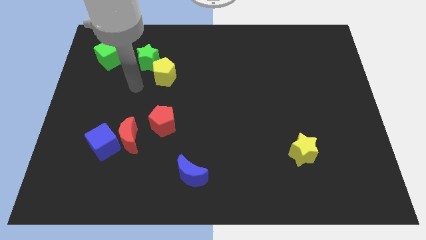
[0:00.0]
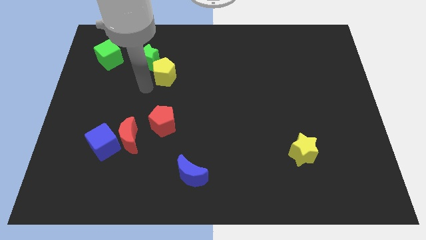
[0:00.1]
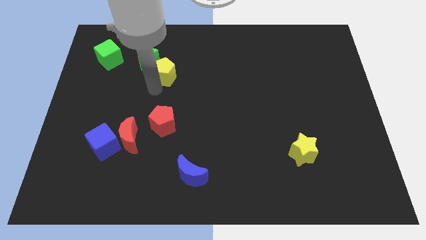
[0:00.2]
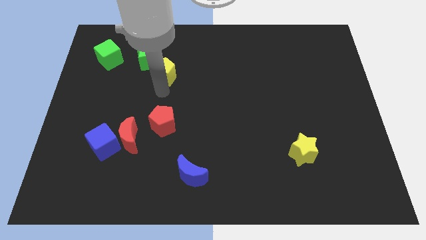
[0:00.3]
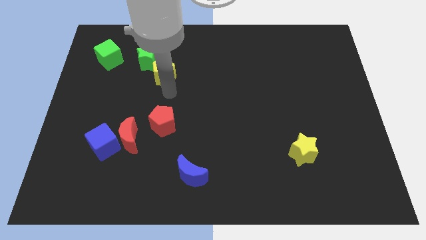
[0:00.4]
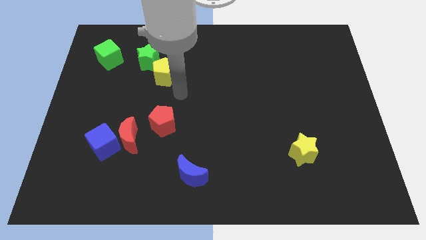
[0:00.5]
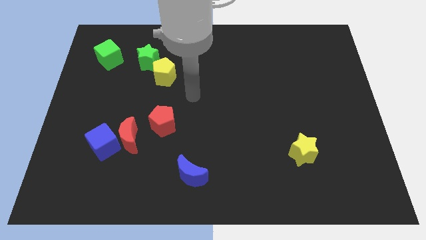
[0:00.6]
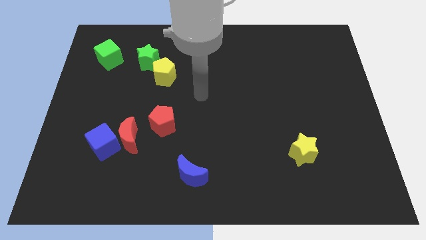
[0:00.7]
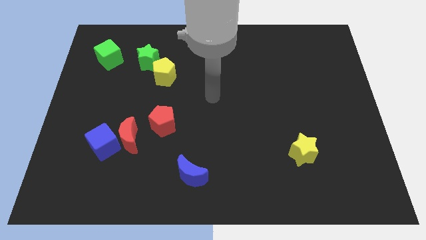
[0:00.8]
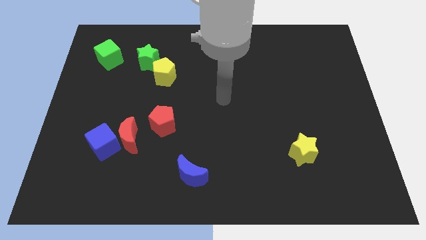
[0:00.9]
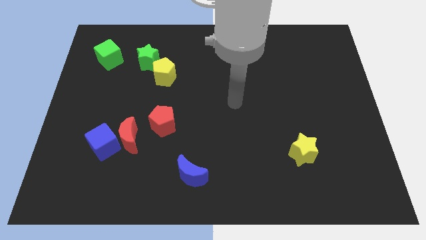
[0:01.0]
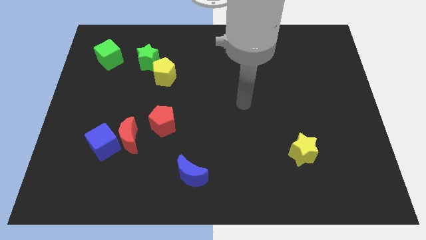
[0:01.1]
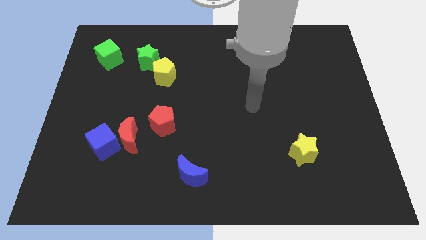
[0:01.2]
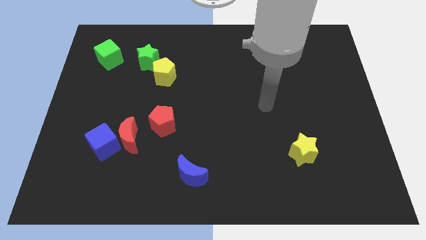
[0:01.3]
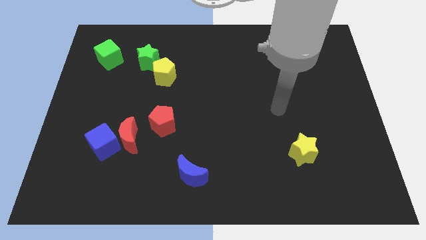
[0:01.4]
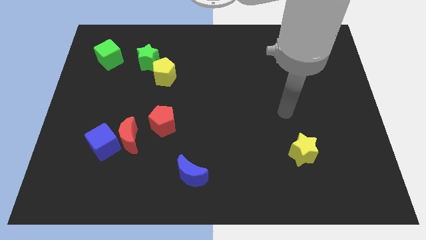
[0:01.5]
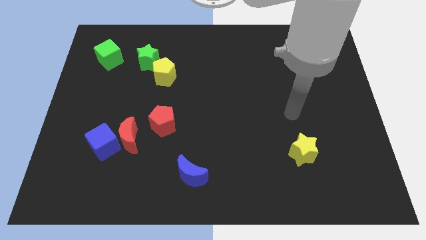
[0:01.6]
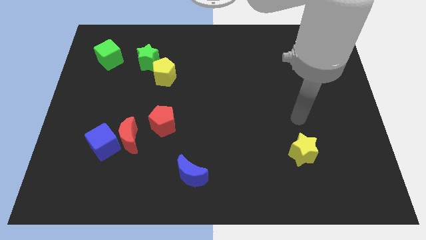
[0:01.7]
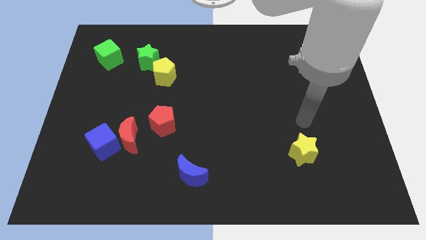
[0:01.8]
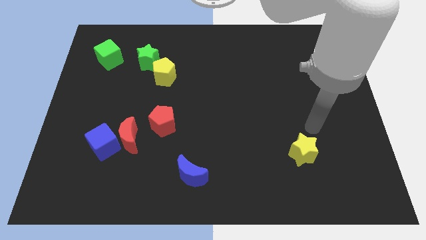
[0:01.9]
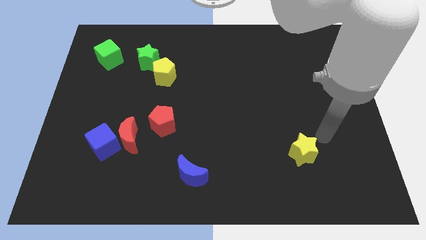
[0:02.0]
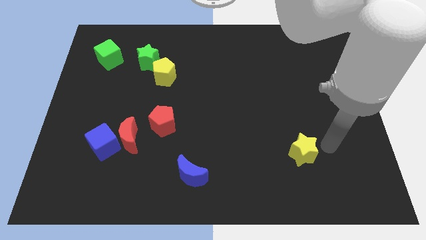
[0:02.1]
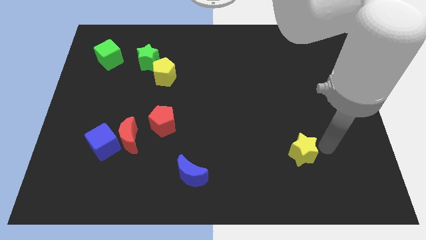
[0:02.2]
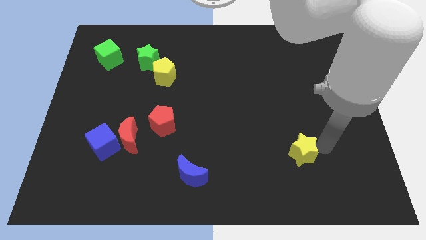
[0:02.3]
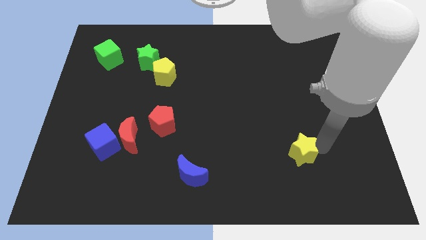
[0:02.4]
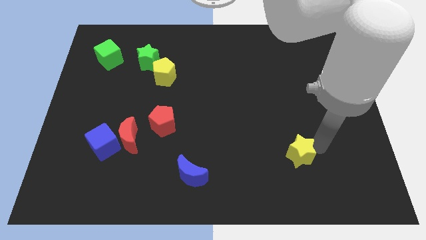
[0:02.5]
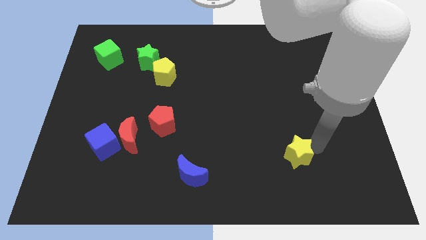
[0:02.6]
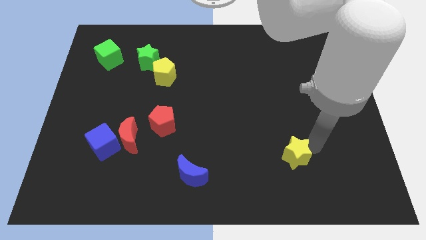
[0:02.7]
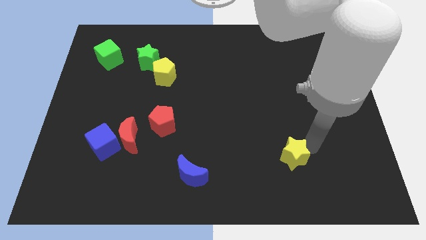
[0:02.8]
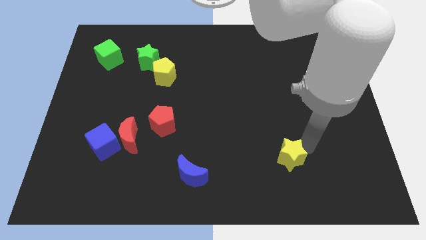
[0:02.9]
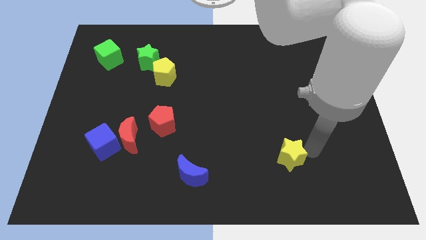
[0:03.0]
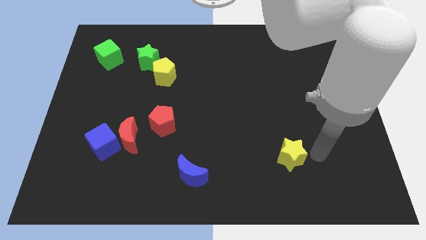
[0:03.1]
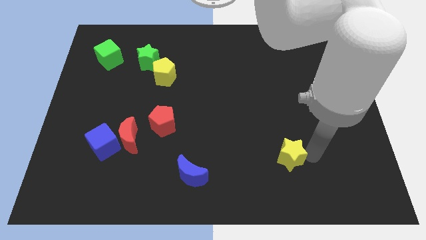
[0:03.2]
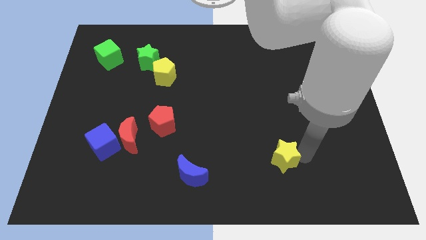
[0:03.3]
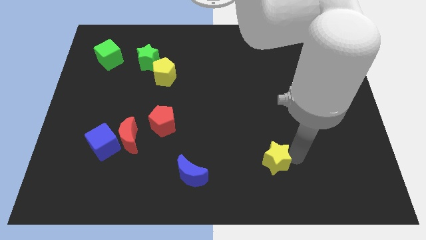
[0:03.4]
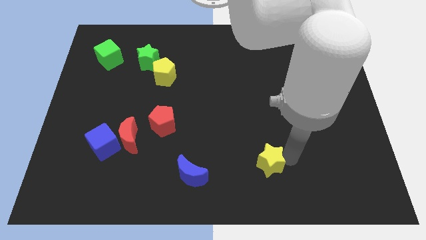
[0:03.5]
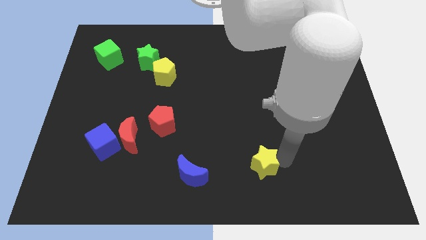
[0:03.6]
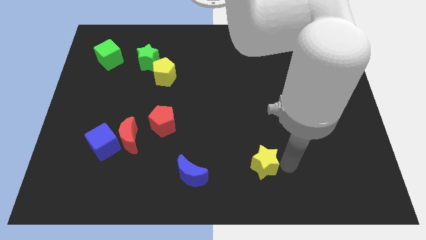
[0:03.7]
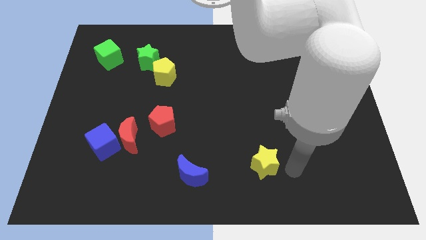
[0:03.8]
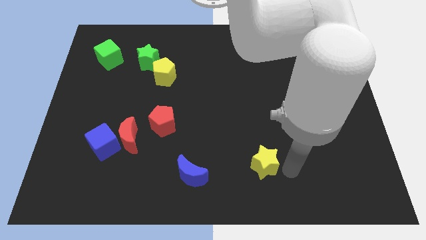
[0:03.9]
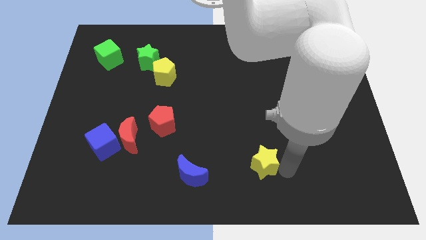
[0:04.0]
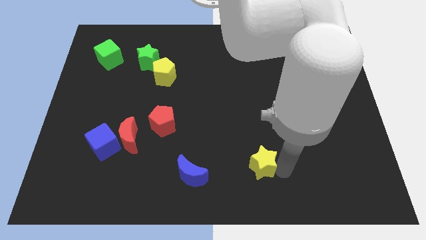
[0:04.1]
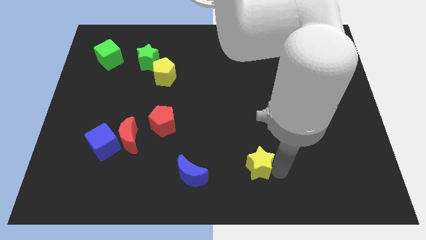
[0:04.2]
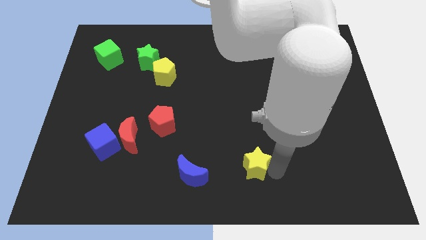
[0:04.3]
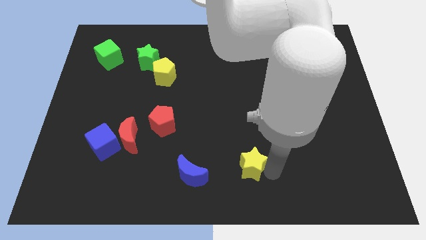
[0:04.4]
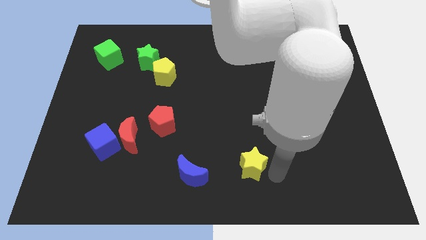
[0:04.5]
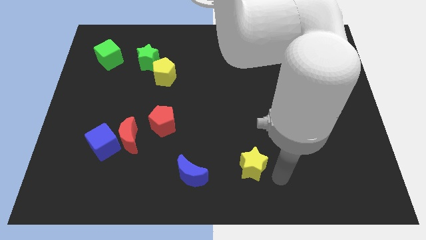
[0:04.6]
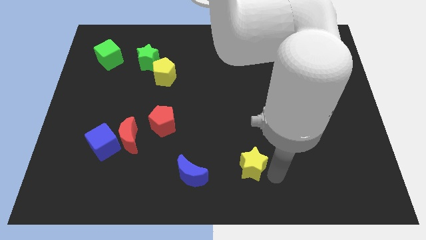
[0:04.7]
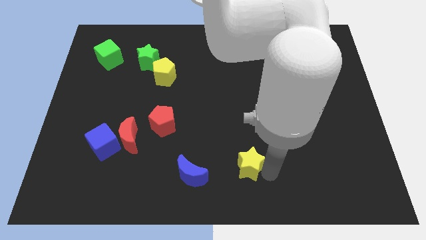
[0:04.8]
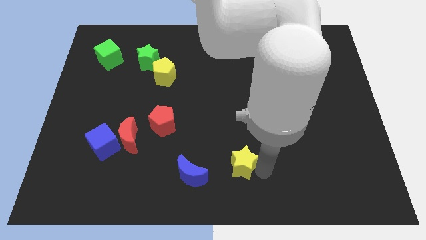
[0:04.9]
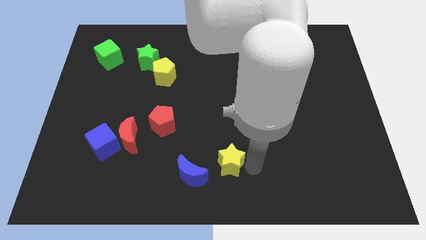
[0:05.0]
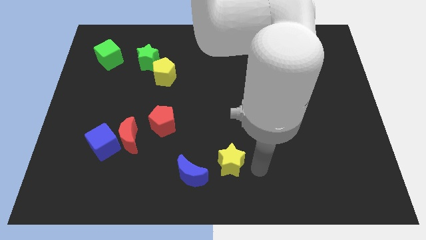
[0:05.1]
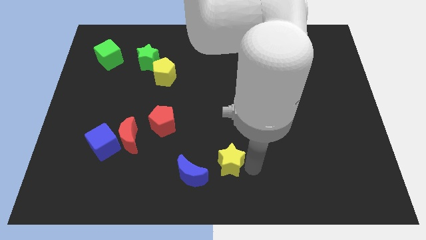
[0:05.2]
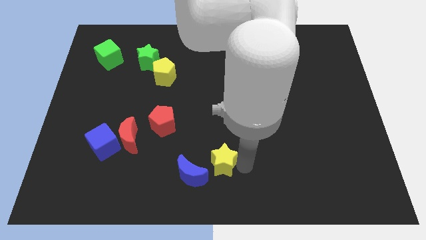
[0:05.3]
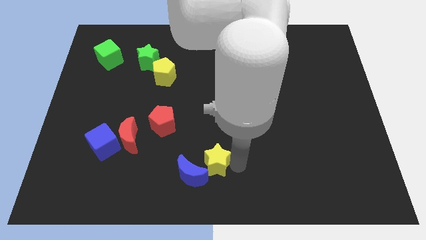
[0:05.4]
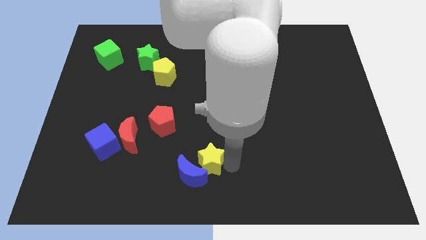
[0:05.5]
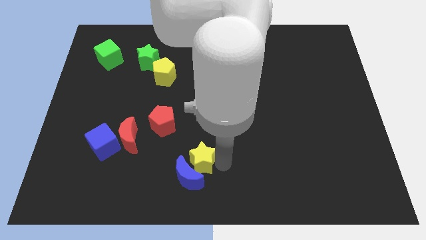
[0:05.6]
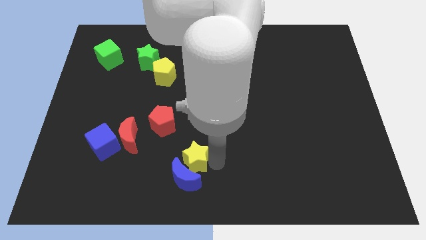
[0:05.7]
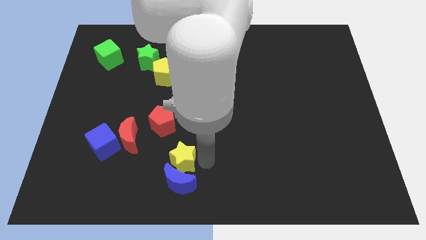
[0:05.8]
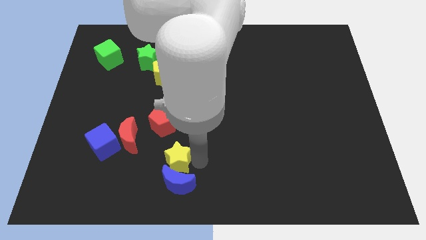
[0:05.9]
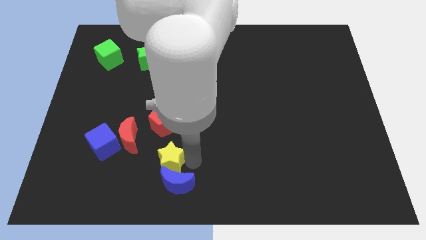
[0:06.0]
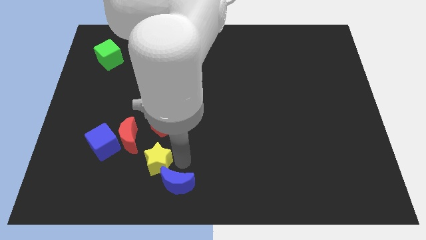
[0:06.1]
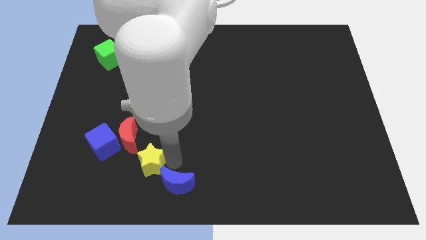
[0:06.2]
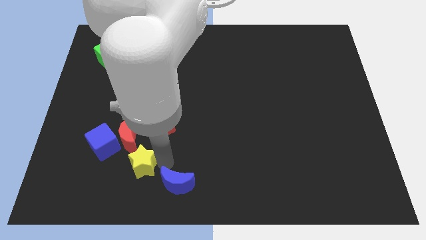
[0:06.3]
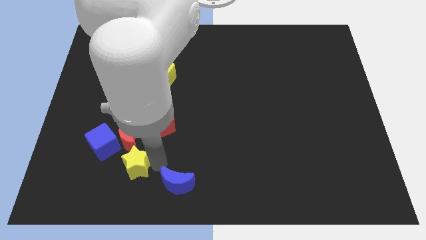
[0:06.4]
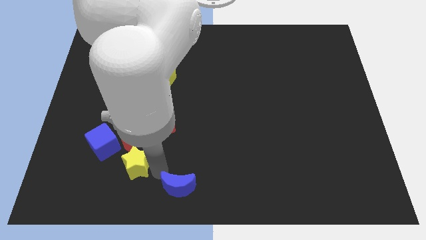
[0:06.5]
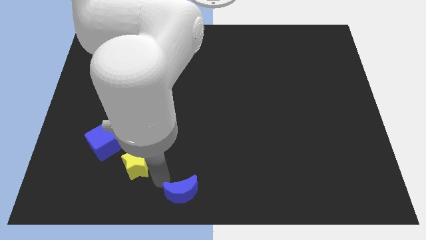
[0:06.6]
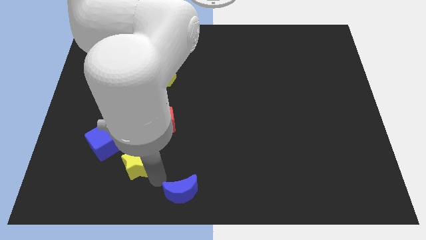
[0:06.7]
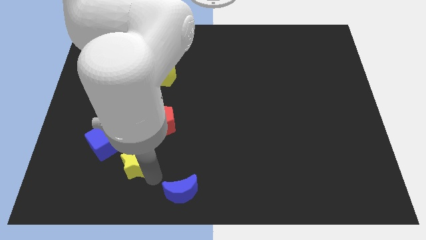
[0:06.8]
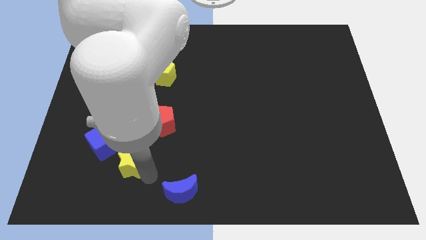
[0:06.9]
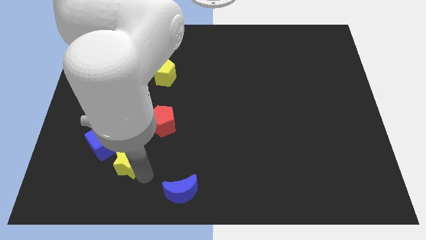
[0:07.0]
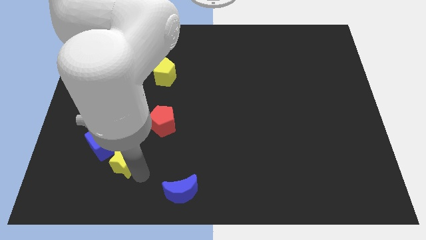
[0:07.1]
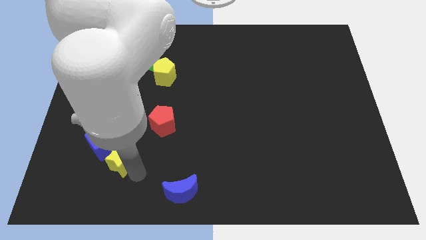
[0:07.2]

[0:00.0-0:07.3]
put the yellow star to the blue cube

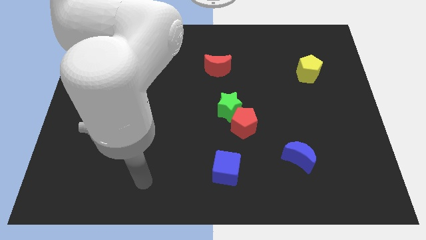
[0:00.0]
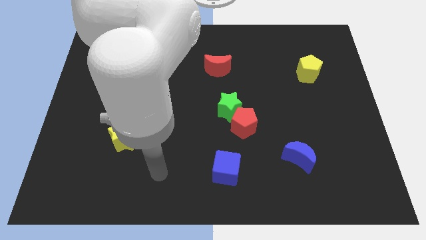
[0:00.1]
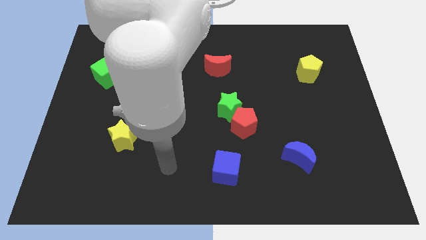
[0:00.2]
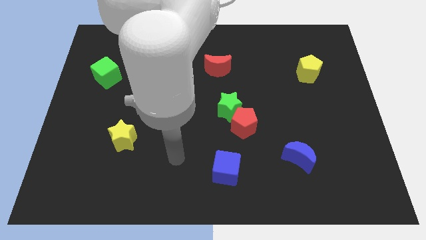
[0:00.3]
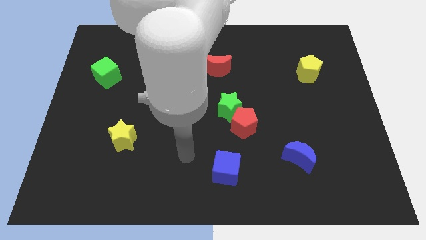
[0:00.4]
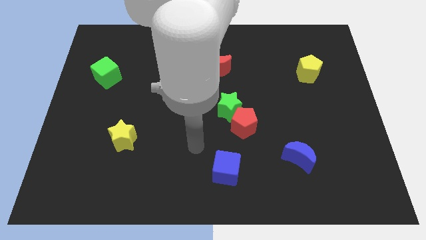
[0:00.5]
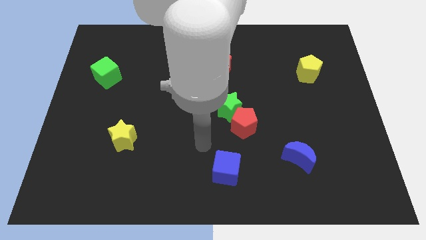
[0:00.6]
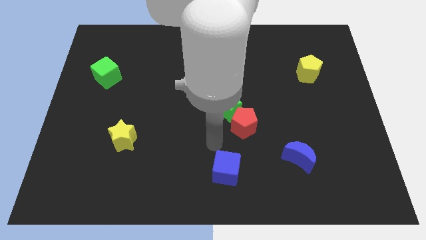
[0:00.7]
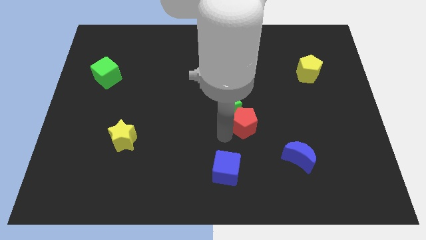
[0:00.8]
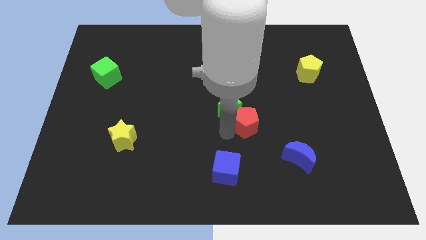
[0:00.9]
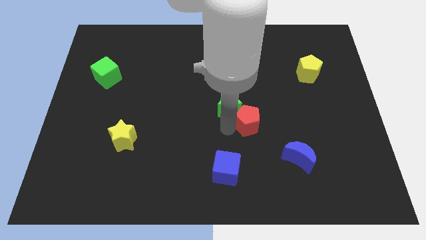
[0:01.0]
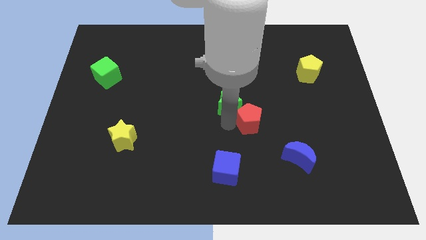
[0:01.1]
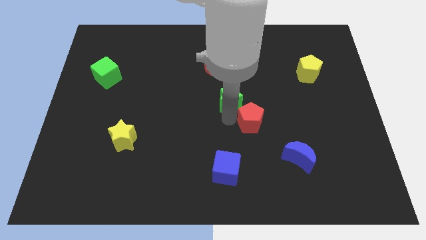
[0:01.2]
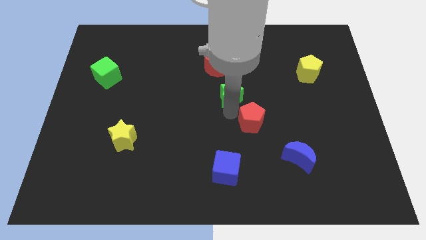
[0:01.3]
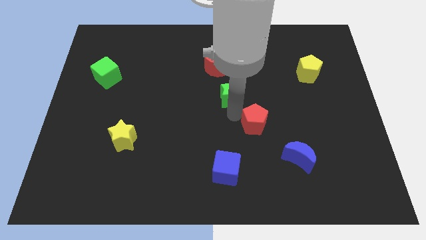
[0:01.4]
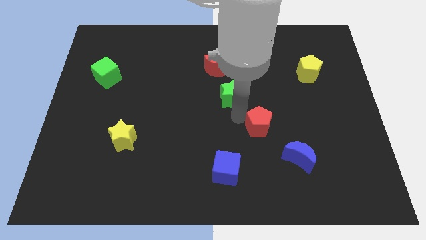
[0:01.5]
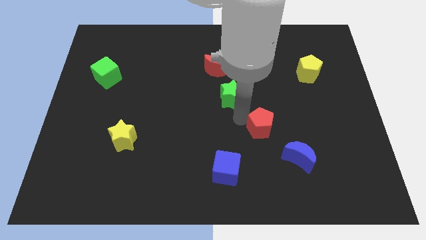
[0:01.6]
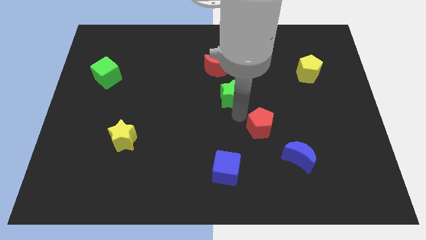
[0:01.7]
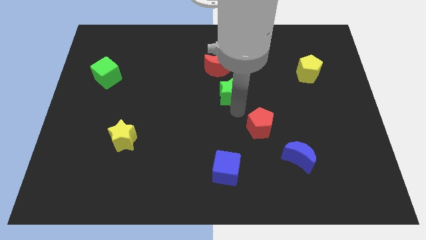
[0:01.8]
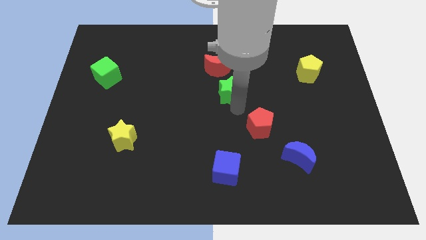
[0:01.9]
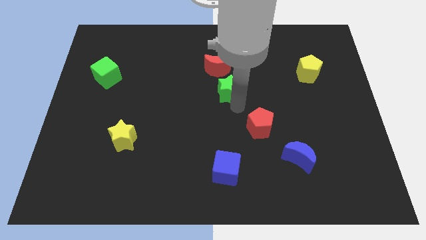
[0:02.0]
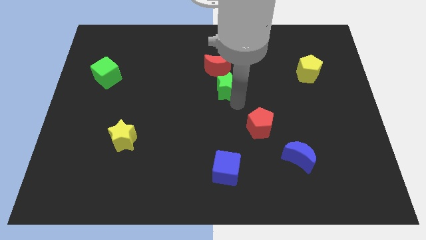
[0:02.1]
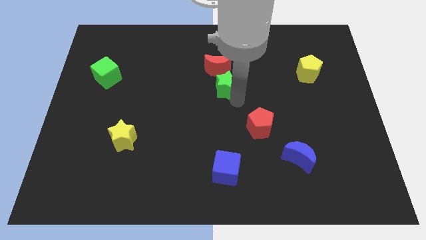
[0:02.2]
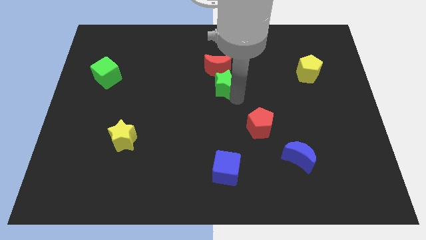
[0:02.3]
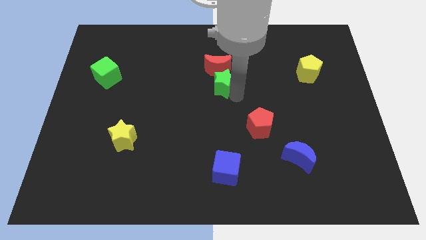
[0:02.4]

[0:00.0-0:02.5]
slide the green star towards the red moon
